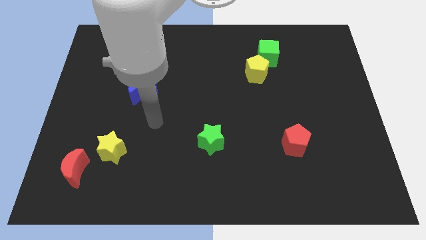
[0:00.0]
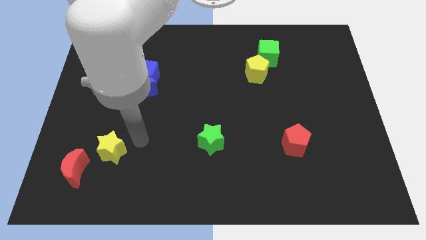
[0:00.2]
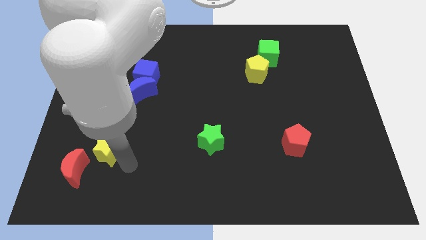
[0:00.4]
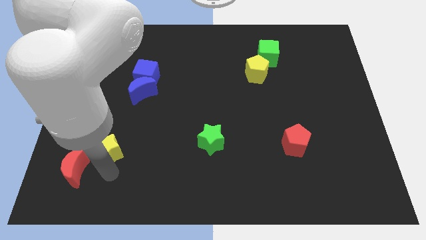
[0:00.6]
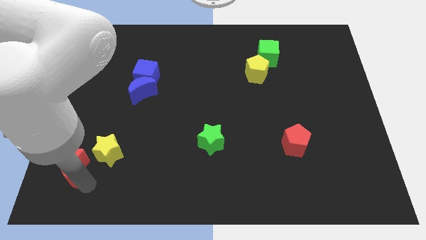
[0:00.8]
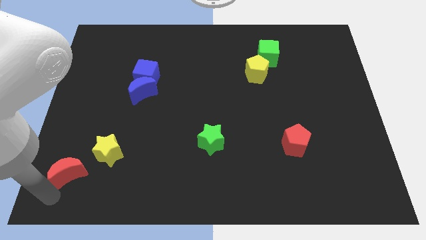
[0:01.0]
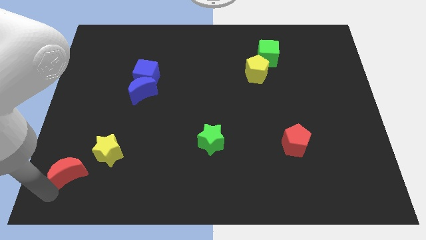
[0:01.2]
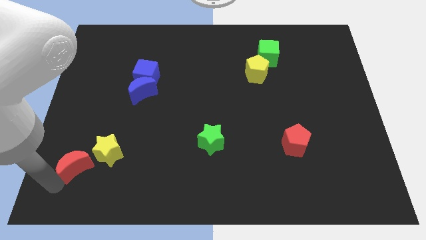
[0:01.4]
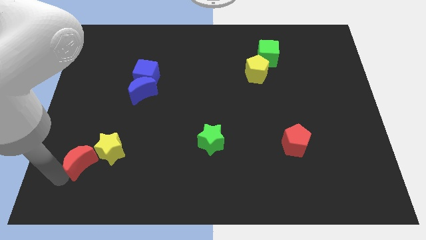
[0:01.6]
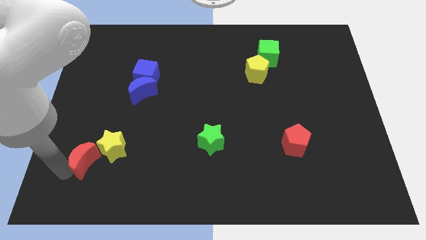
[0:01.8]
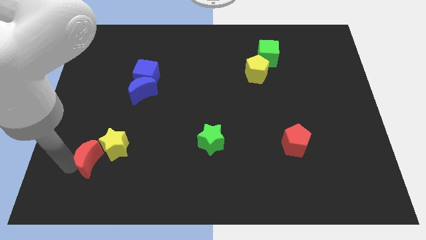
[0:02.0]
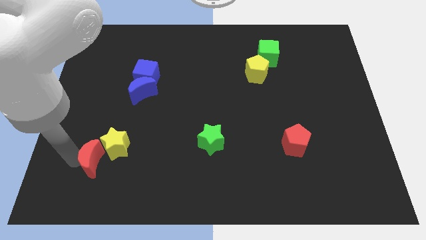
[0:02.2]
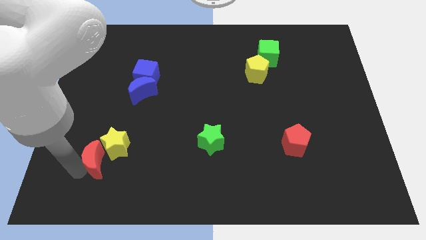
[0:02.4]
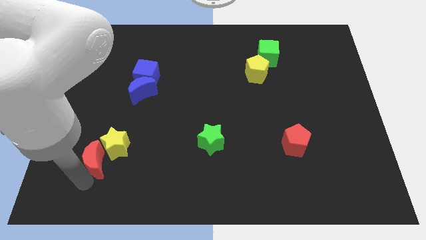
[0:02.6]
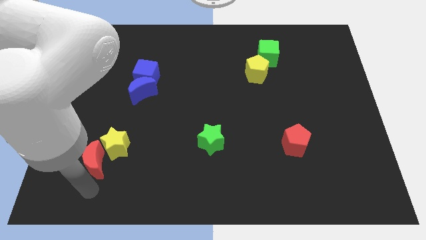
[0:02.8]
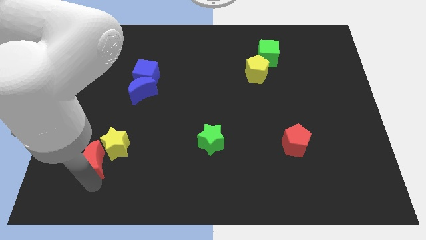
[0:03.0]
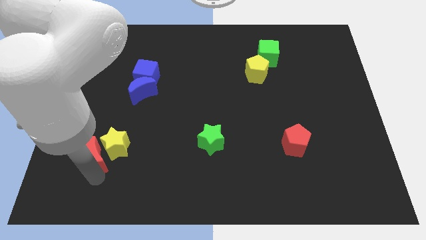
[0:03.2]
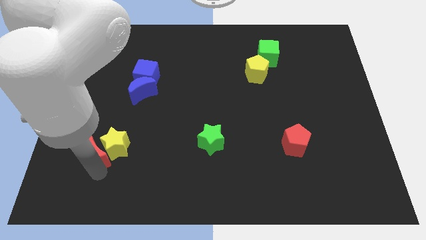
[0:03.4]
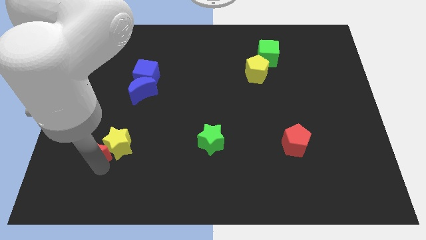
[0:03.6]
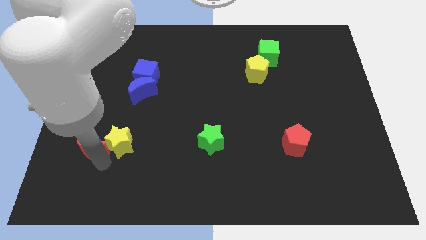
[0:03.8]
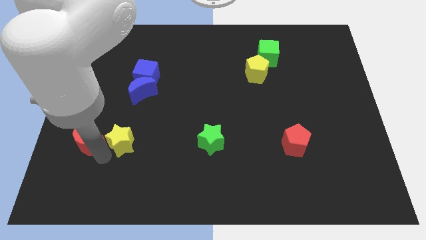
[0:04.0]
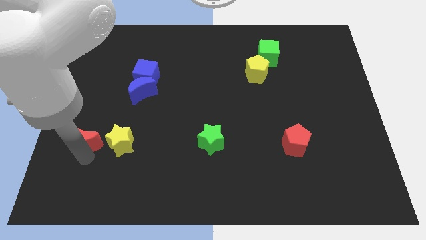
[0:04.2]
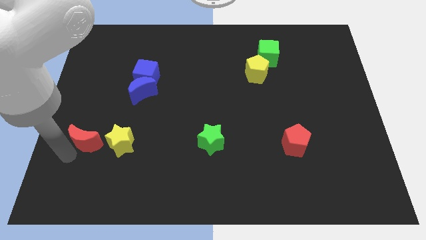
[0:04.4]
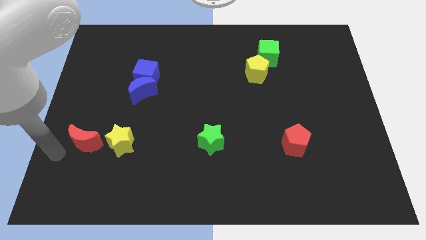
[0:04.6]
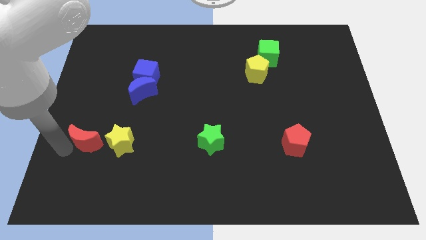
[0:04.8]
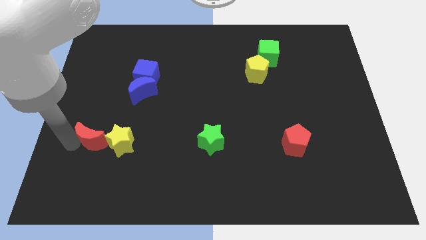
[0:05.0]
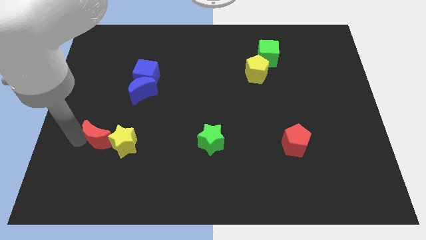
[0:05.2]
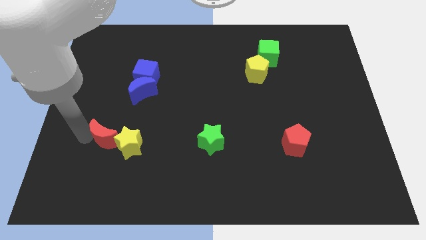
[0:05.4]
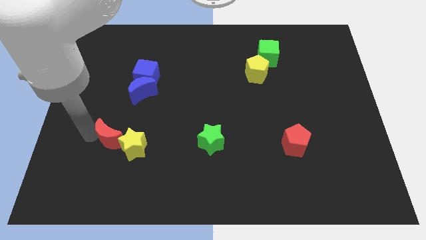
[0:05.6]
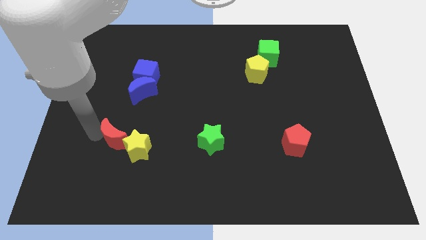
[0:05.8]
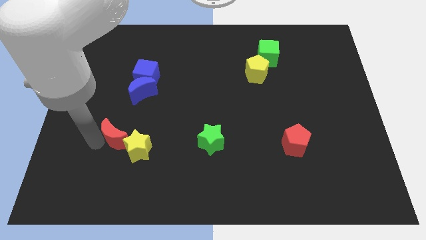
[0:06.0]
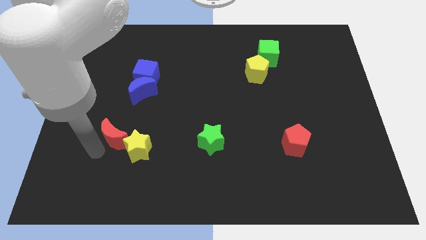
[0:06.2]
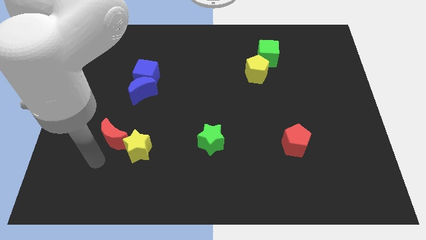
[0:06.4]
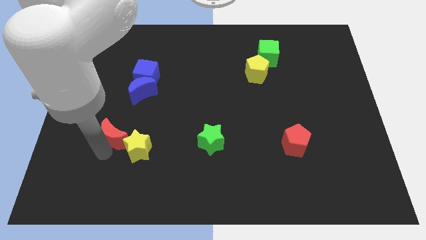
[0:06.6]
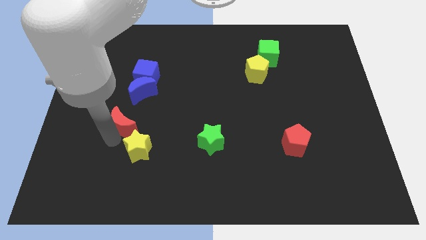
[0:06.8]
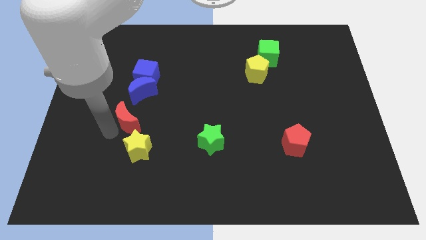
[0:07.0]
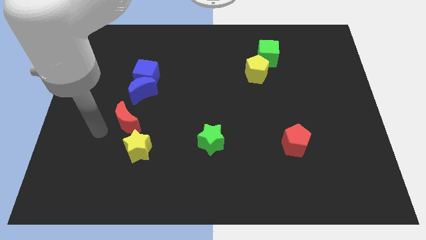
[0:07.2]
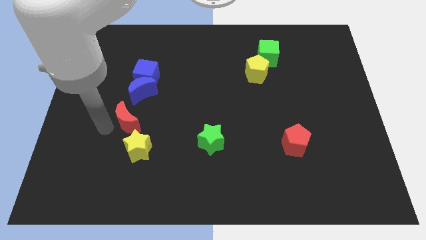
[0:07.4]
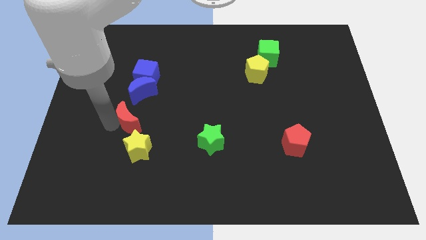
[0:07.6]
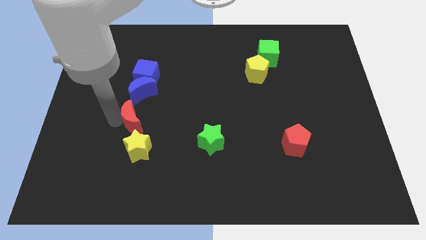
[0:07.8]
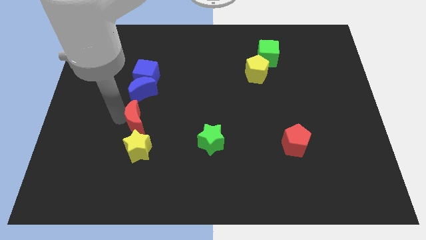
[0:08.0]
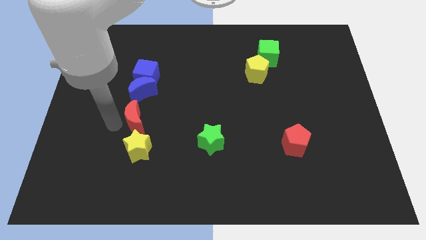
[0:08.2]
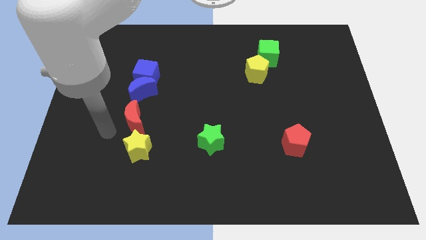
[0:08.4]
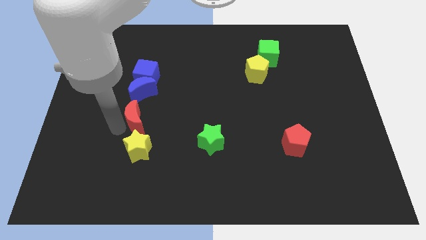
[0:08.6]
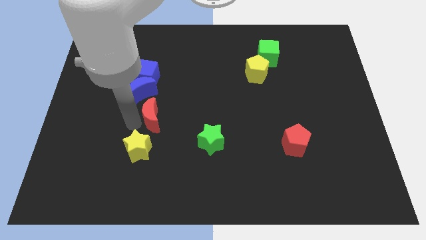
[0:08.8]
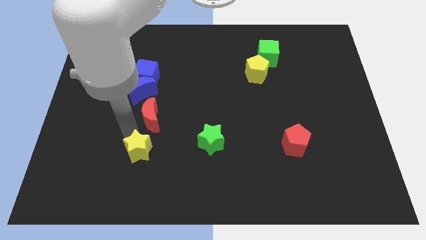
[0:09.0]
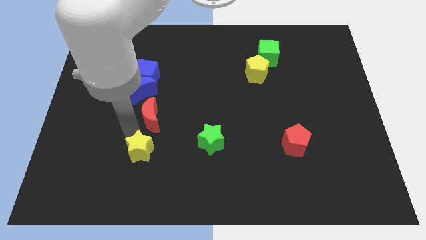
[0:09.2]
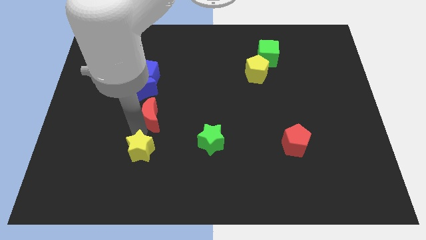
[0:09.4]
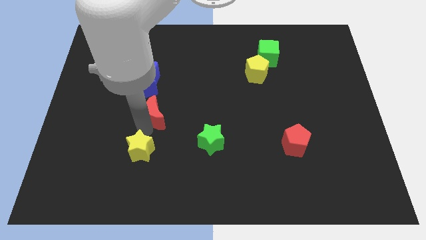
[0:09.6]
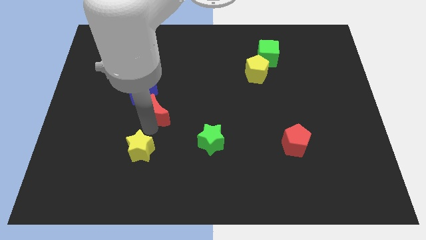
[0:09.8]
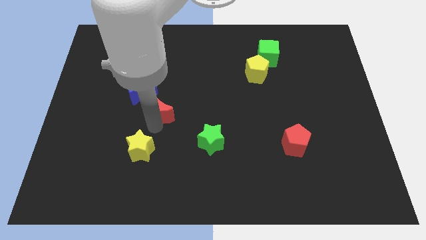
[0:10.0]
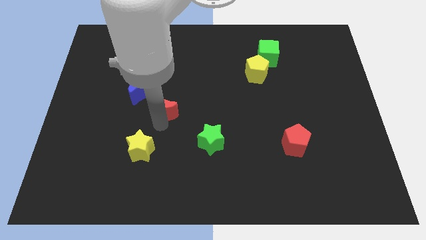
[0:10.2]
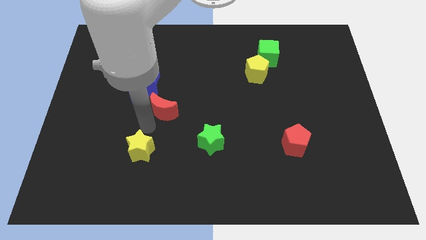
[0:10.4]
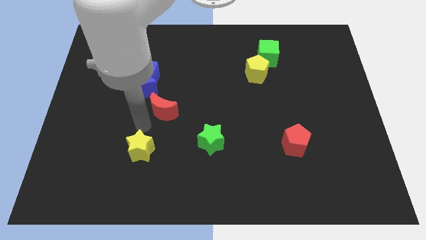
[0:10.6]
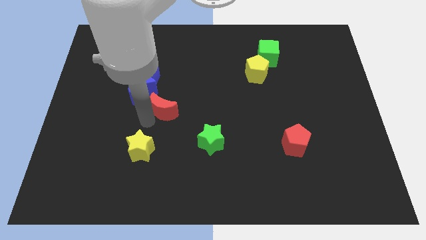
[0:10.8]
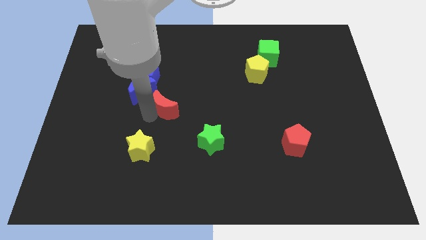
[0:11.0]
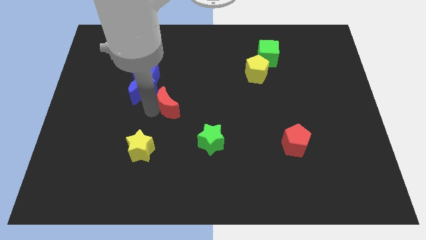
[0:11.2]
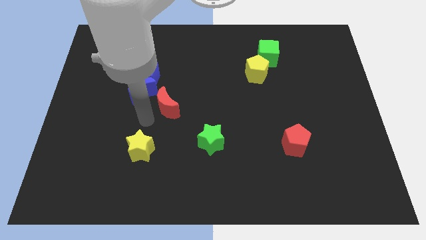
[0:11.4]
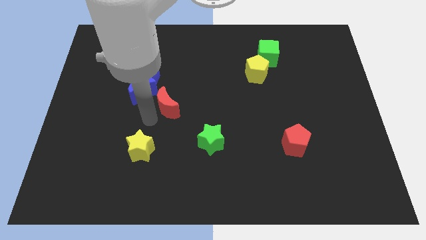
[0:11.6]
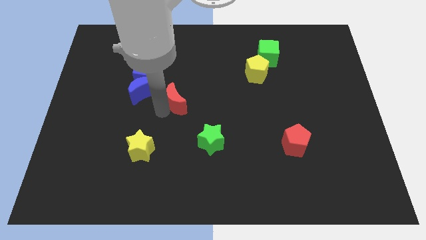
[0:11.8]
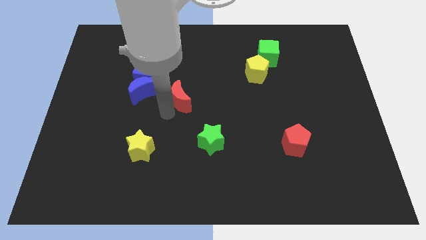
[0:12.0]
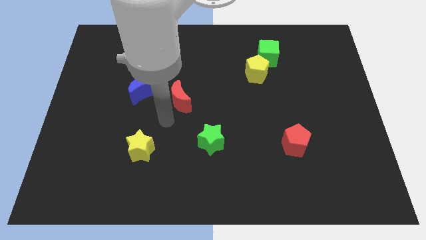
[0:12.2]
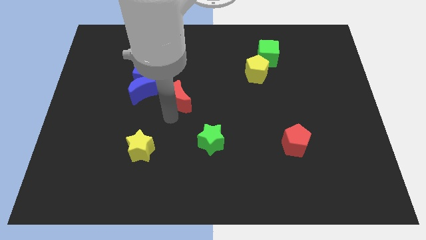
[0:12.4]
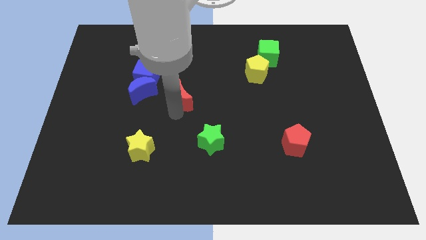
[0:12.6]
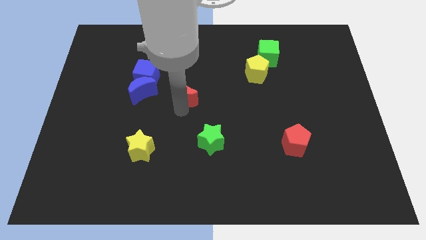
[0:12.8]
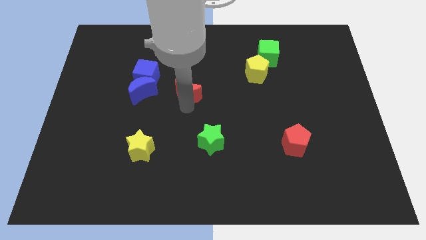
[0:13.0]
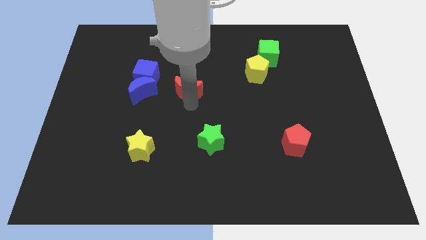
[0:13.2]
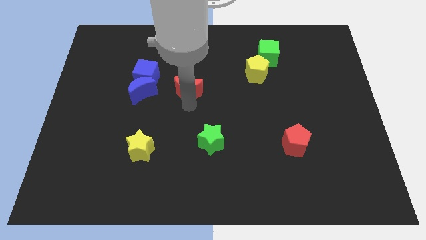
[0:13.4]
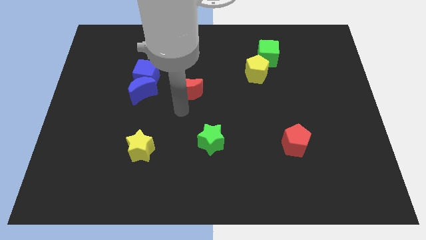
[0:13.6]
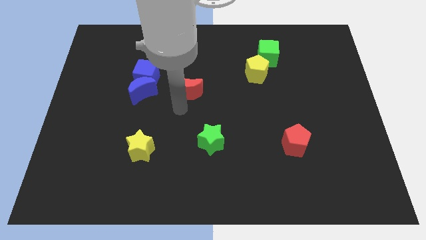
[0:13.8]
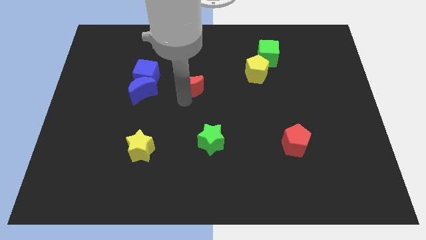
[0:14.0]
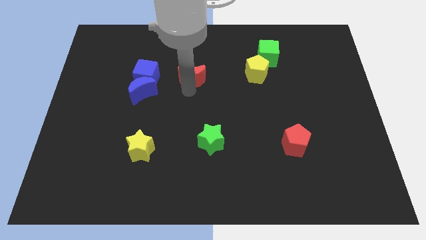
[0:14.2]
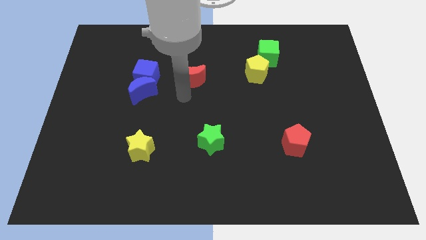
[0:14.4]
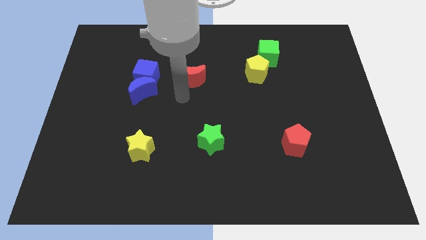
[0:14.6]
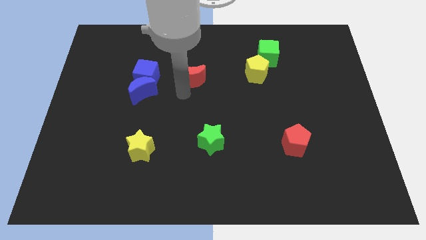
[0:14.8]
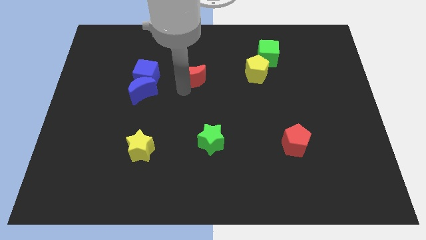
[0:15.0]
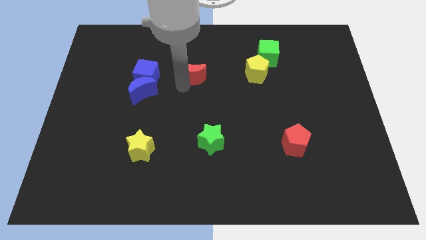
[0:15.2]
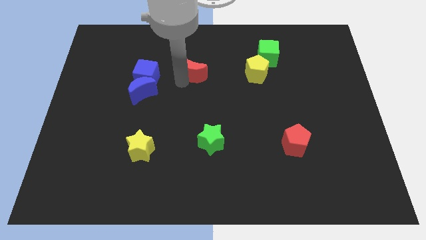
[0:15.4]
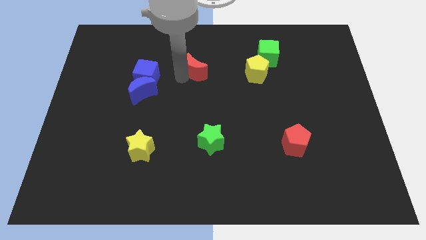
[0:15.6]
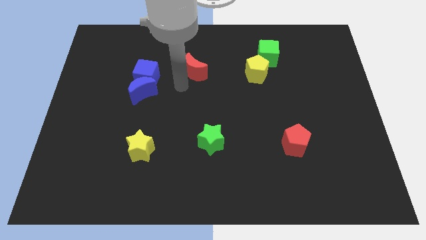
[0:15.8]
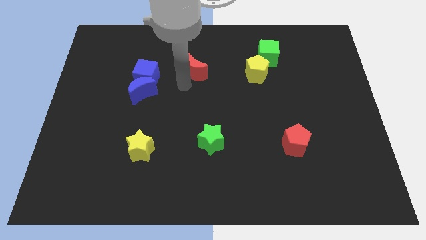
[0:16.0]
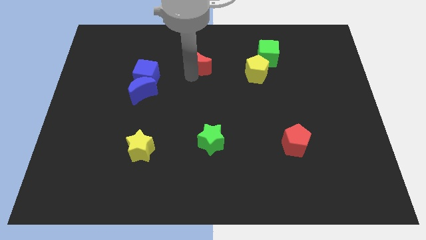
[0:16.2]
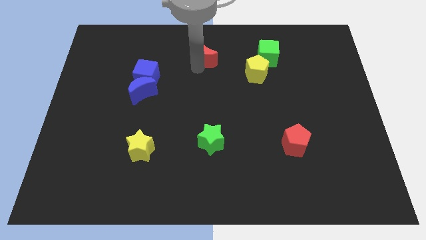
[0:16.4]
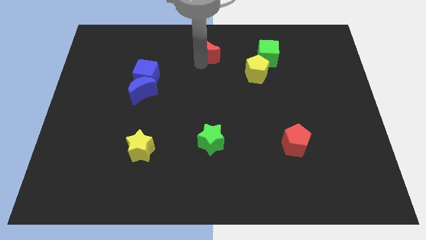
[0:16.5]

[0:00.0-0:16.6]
put the red moon to the towards your base
